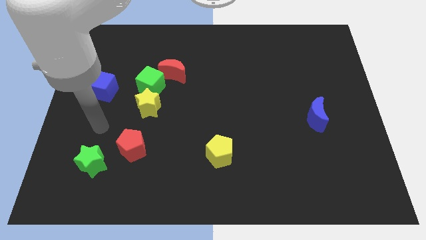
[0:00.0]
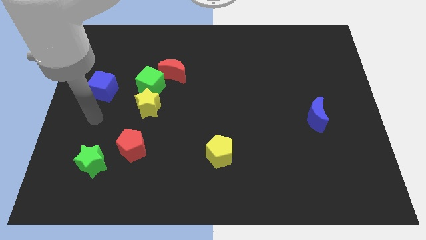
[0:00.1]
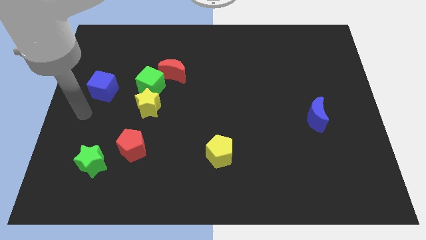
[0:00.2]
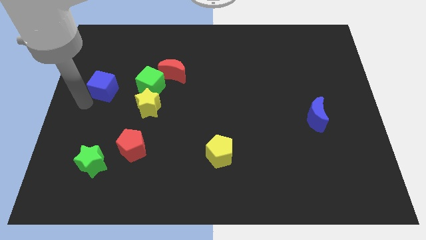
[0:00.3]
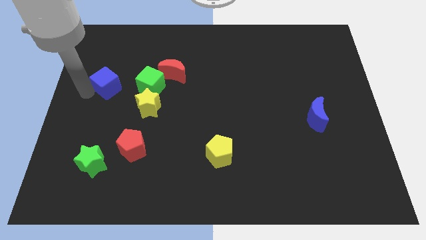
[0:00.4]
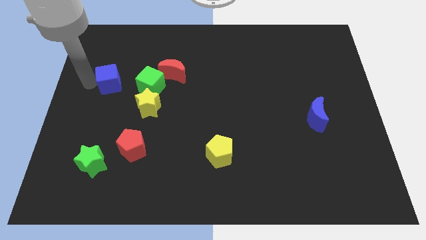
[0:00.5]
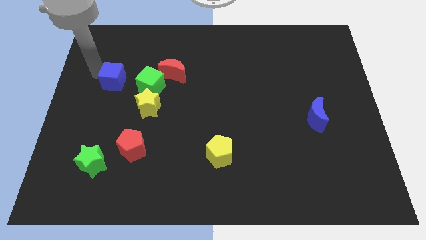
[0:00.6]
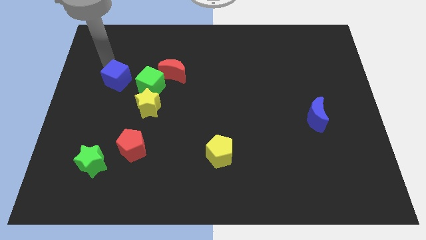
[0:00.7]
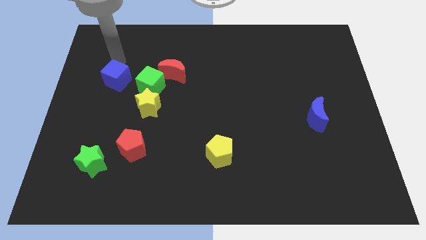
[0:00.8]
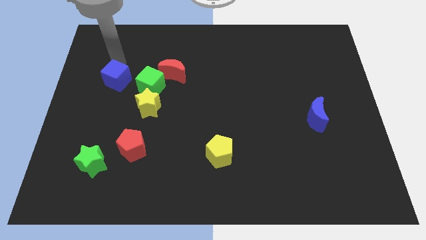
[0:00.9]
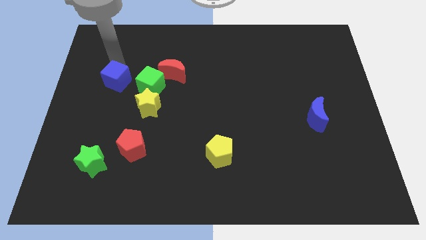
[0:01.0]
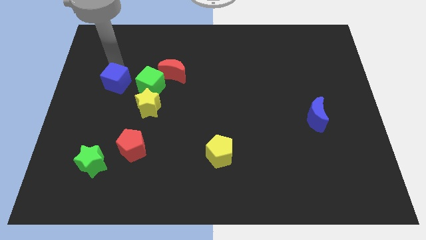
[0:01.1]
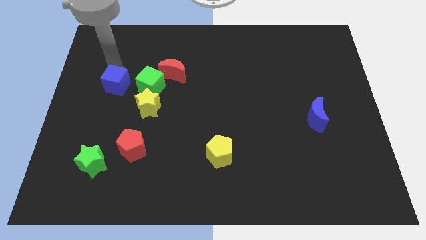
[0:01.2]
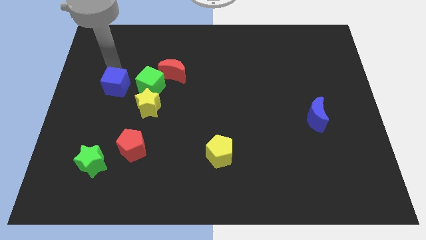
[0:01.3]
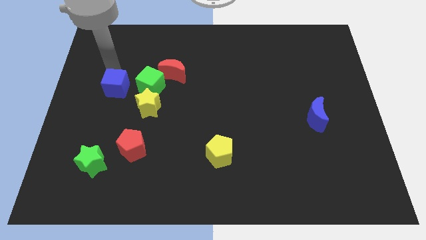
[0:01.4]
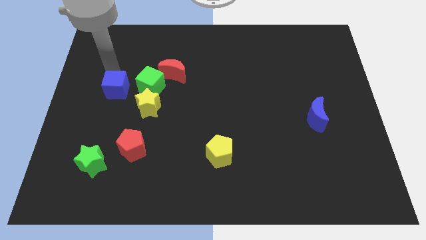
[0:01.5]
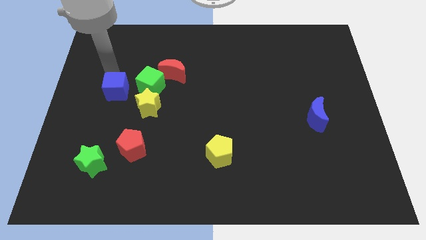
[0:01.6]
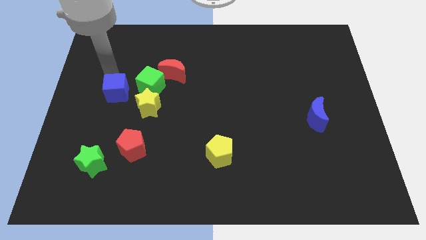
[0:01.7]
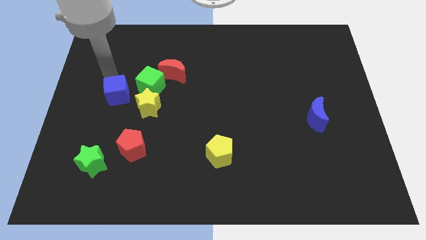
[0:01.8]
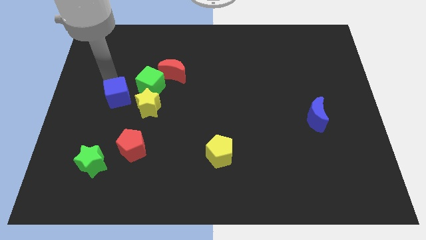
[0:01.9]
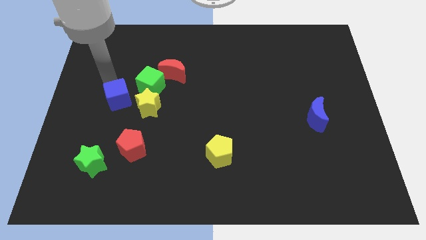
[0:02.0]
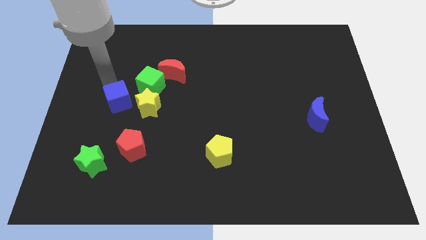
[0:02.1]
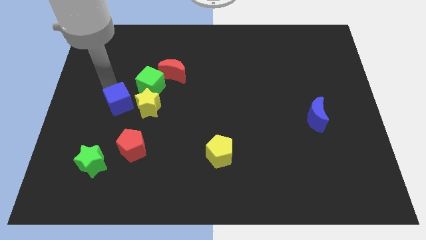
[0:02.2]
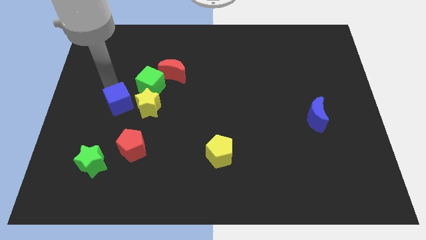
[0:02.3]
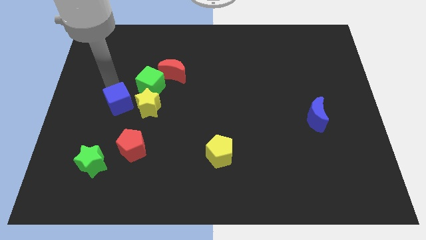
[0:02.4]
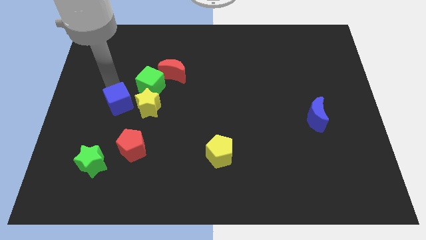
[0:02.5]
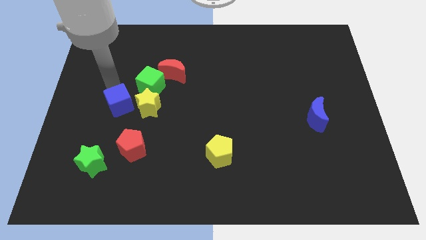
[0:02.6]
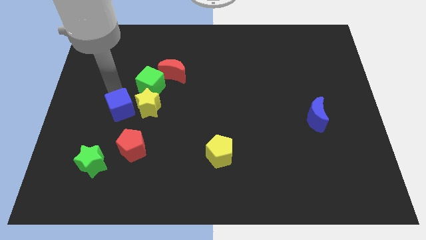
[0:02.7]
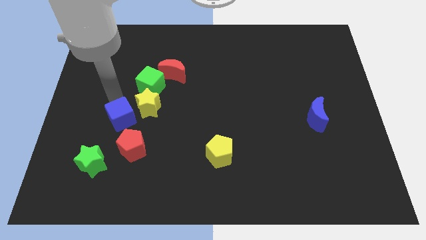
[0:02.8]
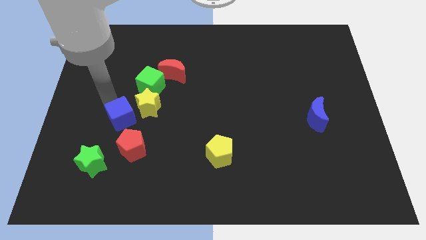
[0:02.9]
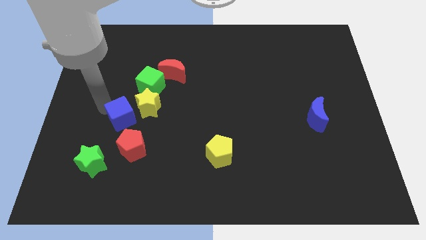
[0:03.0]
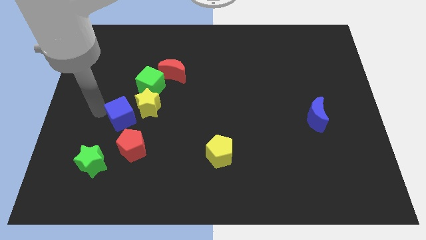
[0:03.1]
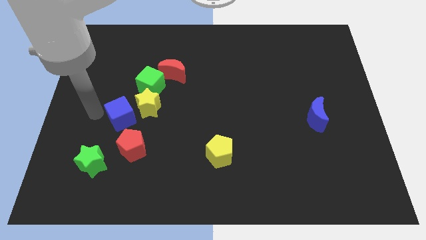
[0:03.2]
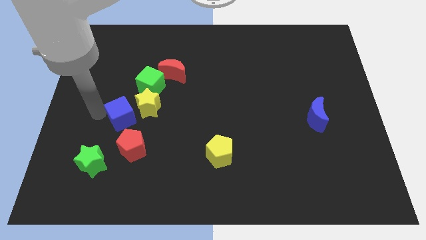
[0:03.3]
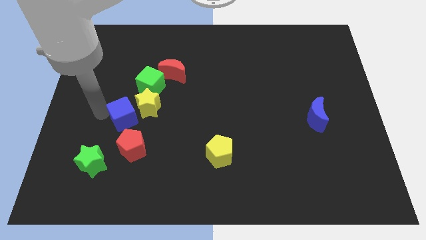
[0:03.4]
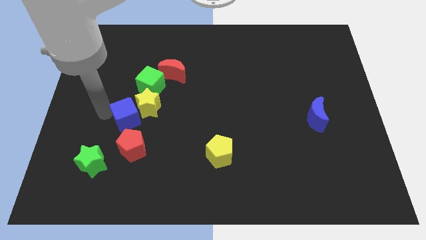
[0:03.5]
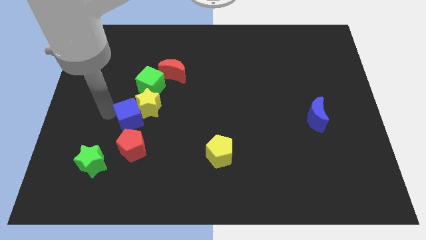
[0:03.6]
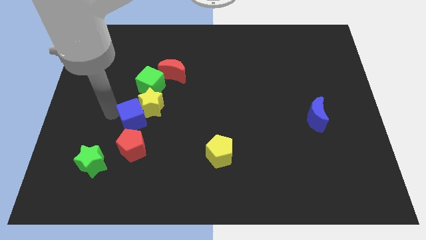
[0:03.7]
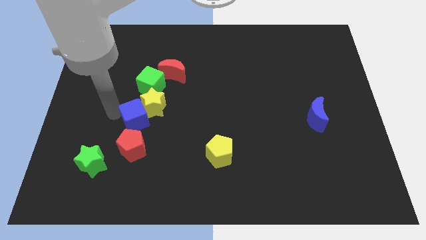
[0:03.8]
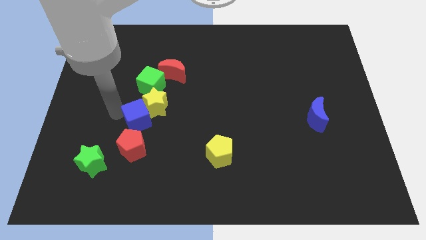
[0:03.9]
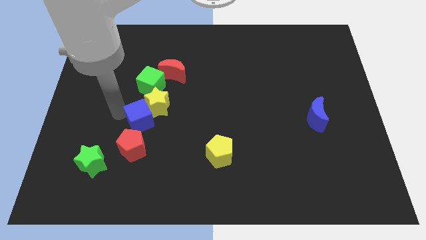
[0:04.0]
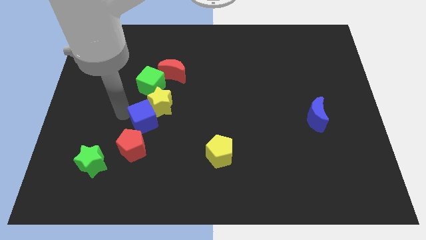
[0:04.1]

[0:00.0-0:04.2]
slightly slide the blue cube to the right

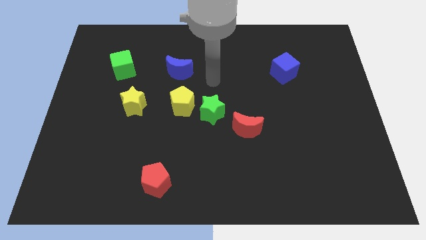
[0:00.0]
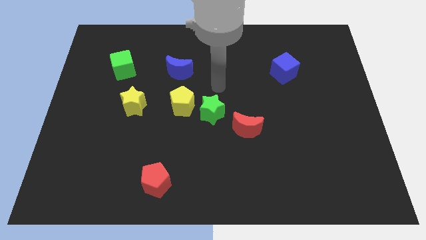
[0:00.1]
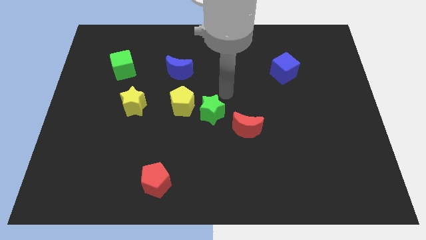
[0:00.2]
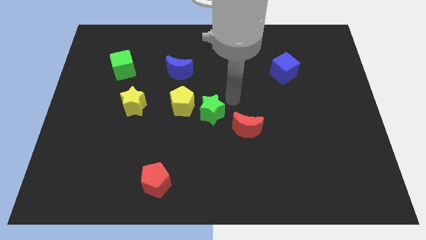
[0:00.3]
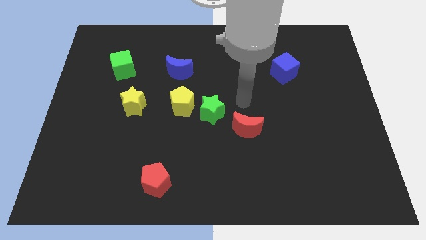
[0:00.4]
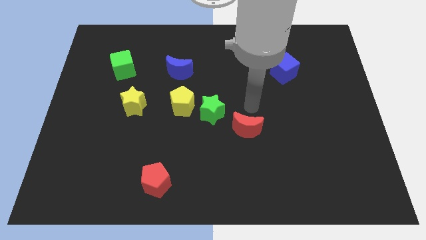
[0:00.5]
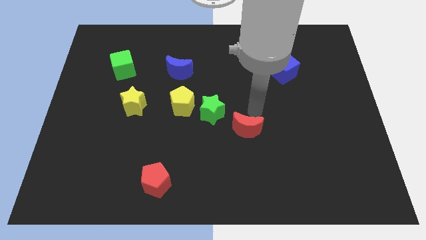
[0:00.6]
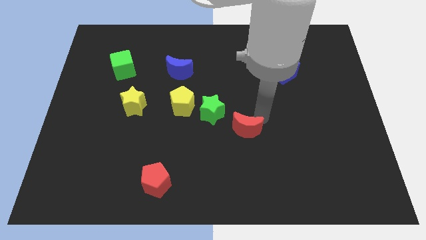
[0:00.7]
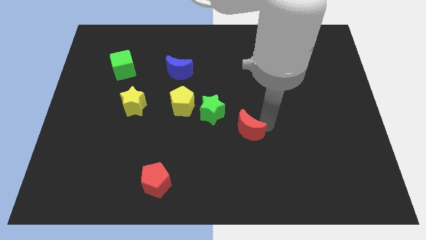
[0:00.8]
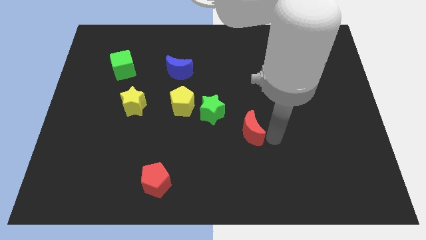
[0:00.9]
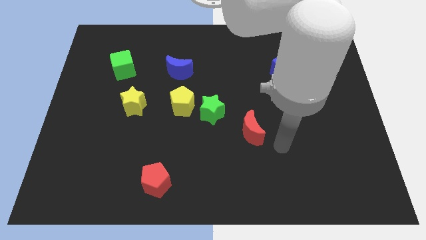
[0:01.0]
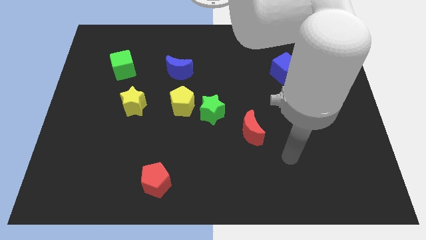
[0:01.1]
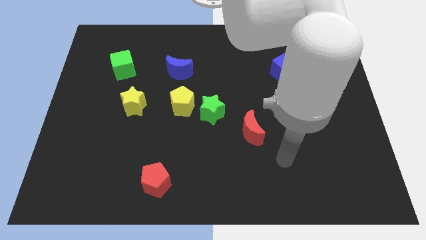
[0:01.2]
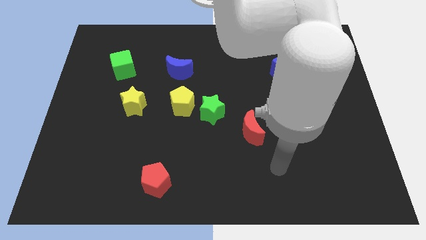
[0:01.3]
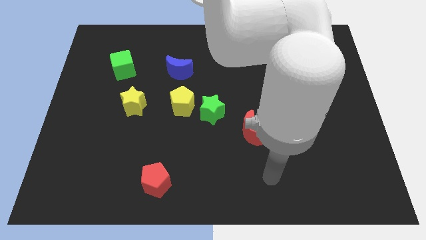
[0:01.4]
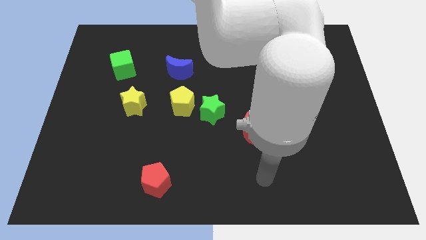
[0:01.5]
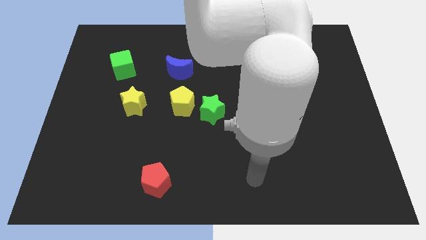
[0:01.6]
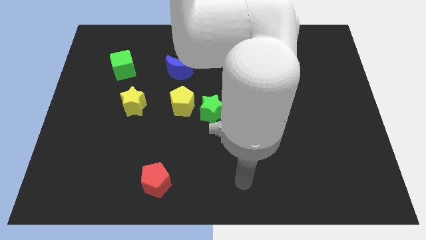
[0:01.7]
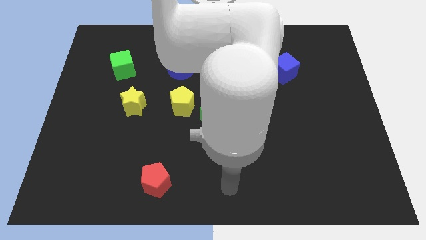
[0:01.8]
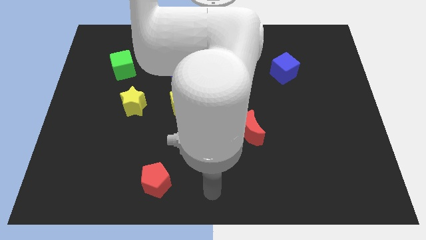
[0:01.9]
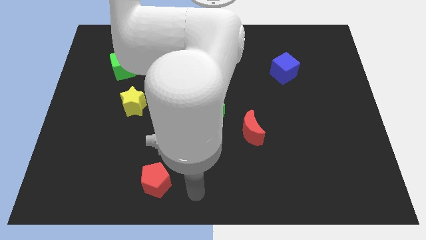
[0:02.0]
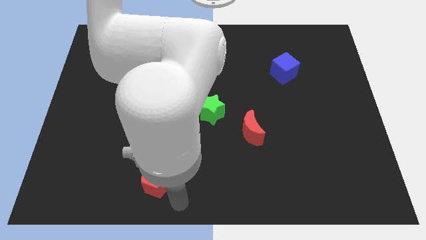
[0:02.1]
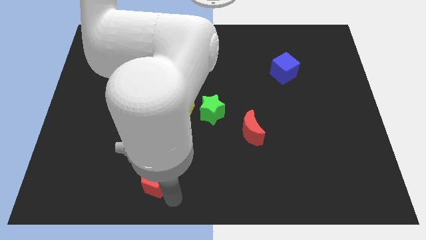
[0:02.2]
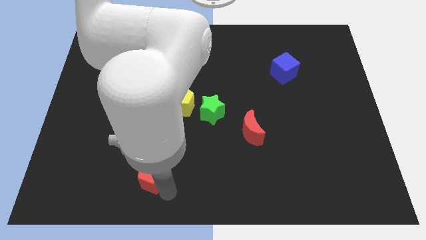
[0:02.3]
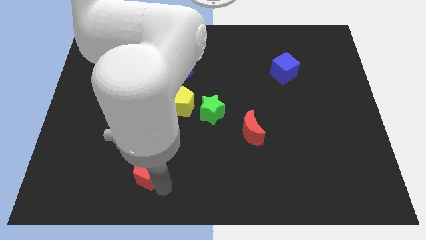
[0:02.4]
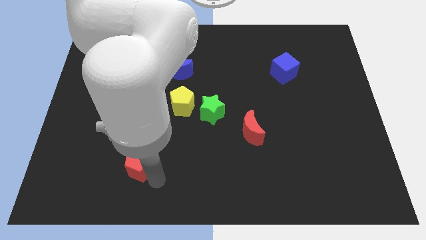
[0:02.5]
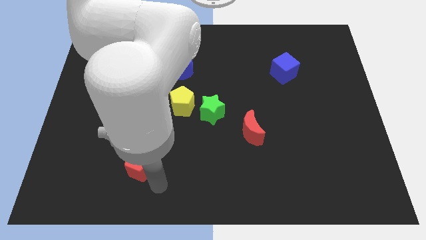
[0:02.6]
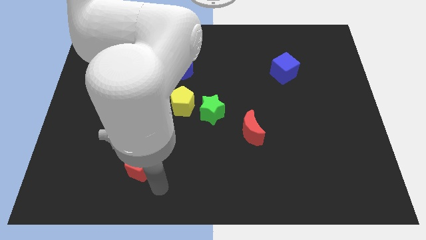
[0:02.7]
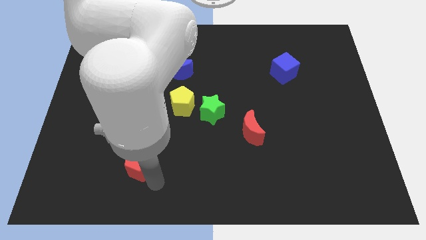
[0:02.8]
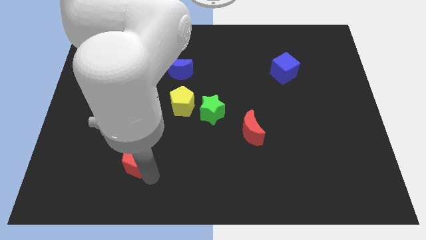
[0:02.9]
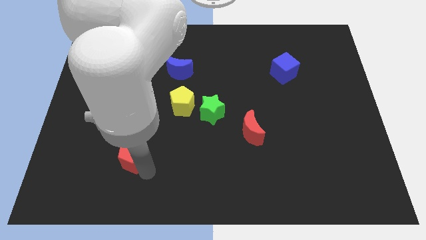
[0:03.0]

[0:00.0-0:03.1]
move the red pentagon up and left diagonally somewhat

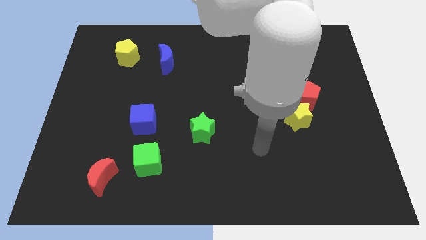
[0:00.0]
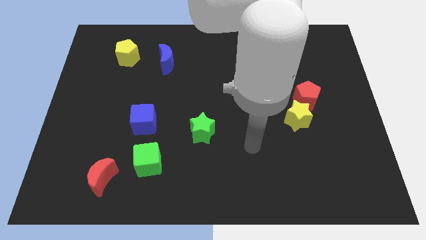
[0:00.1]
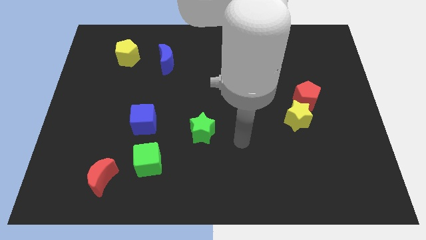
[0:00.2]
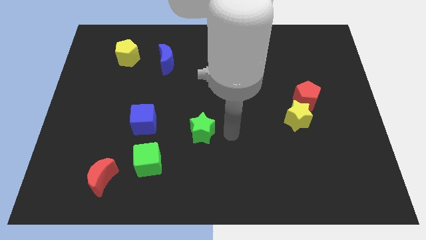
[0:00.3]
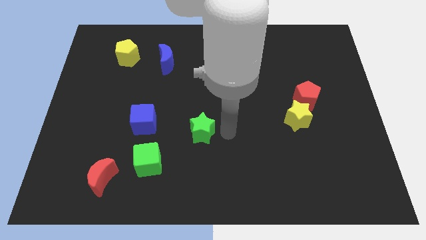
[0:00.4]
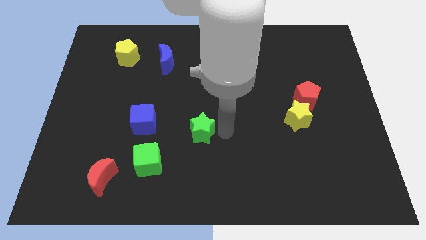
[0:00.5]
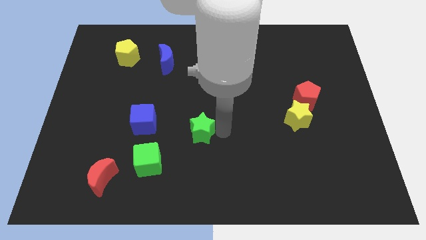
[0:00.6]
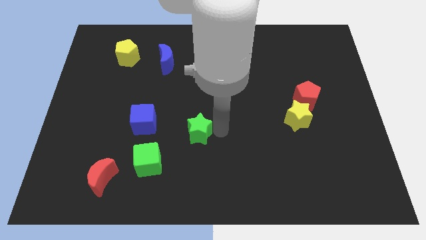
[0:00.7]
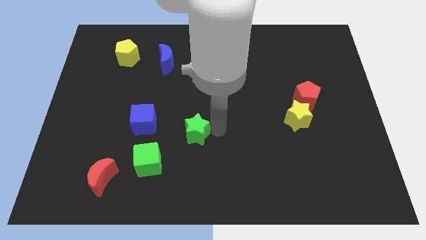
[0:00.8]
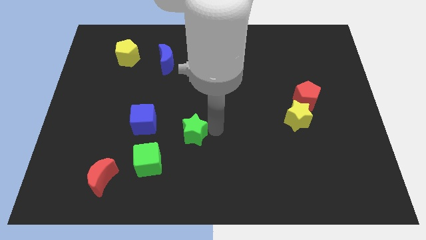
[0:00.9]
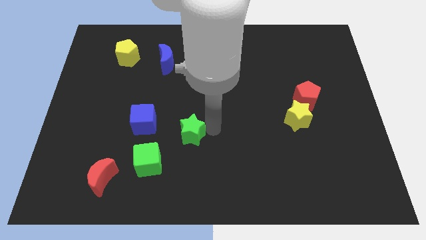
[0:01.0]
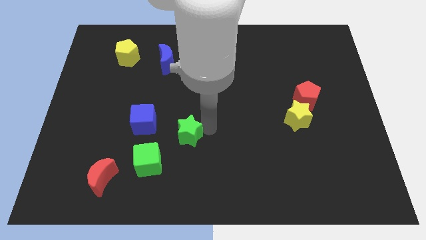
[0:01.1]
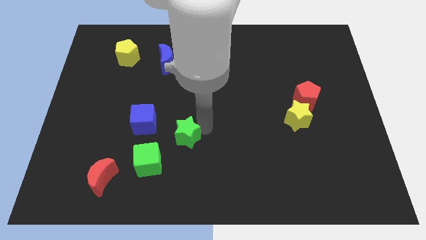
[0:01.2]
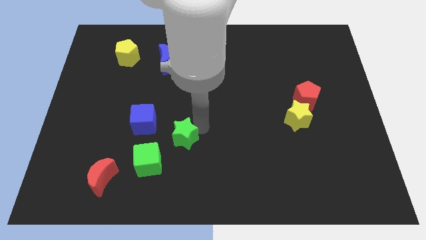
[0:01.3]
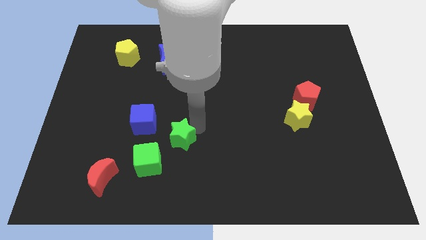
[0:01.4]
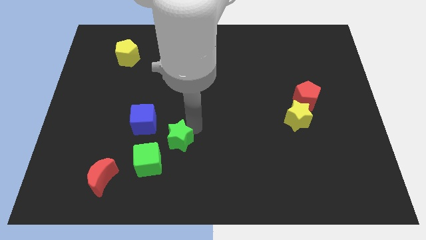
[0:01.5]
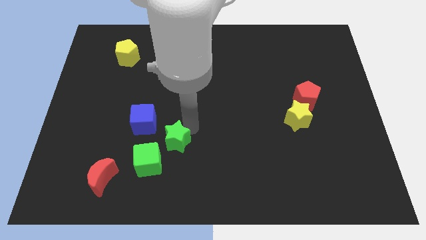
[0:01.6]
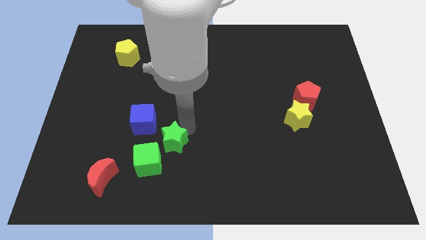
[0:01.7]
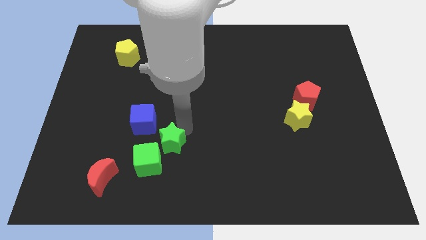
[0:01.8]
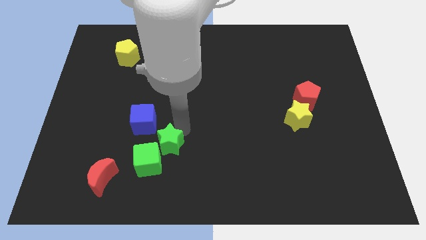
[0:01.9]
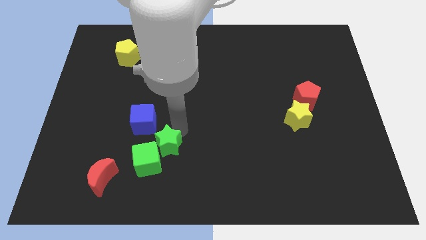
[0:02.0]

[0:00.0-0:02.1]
slide the green star slightly left
